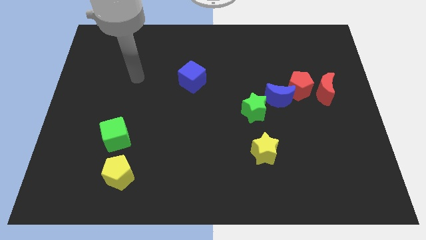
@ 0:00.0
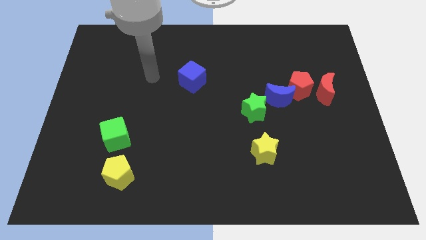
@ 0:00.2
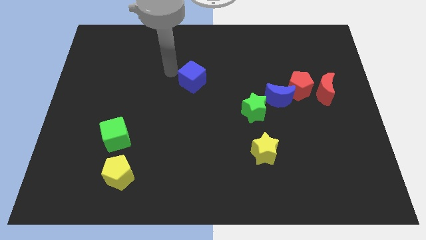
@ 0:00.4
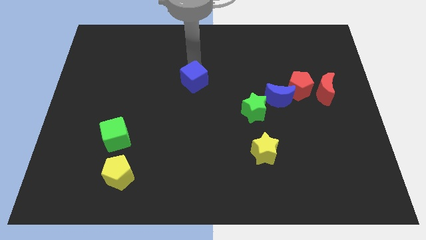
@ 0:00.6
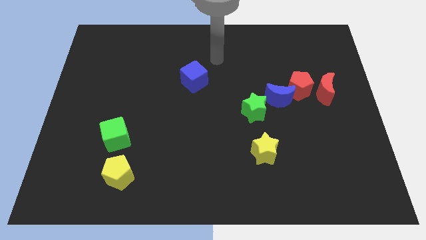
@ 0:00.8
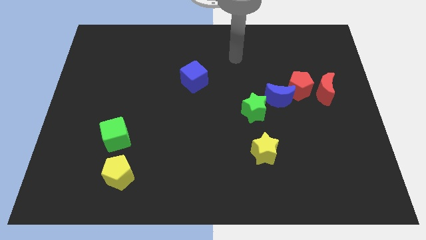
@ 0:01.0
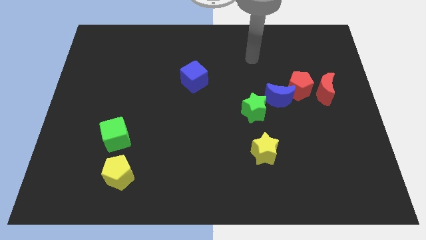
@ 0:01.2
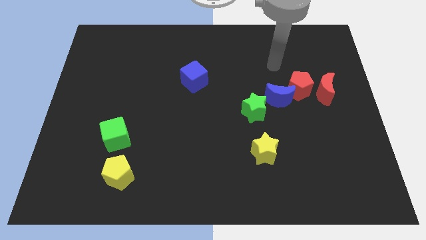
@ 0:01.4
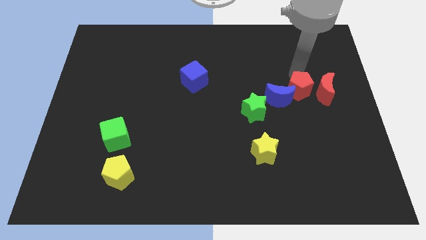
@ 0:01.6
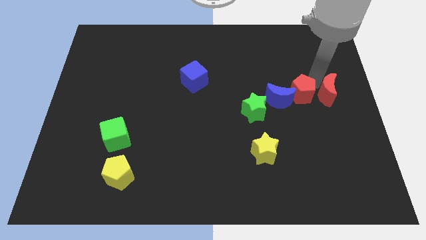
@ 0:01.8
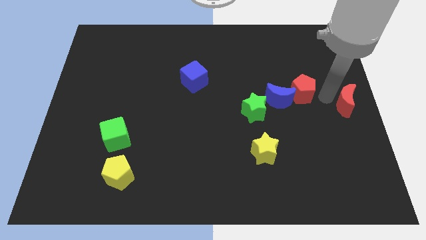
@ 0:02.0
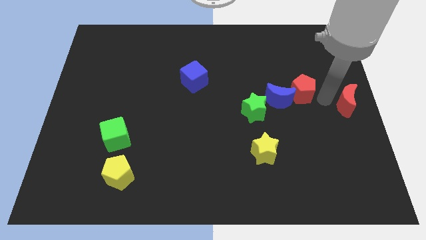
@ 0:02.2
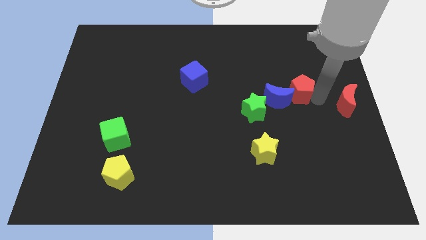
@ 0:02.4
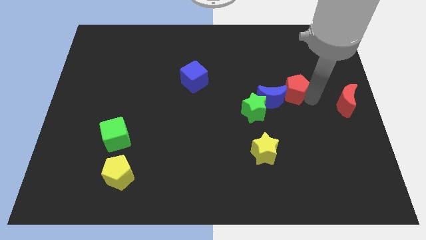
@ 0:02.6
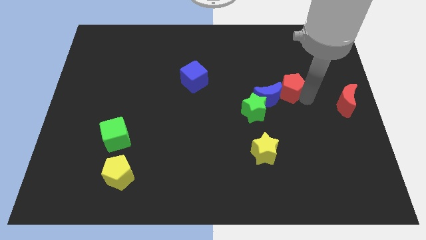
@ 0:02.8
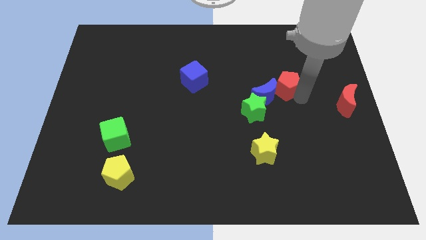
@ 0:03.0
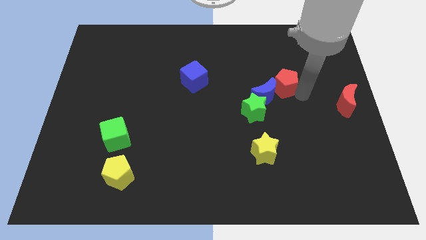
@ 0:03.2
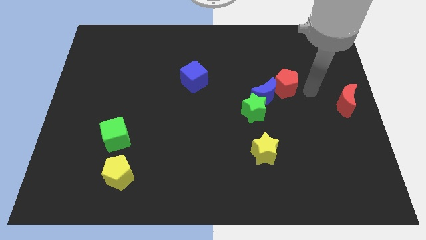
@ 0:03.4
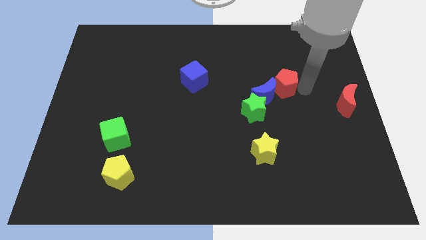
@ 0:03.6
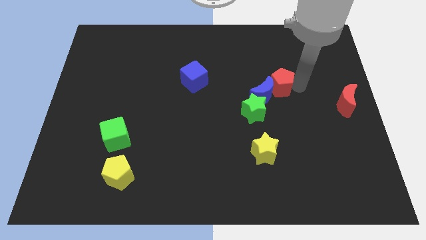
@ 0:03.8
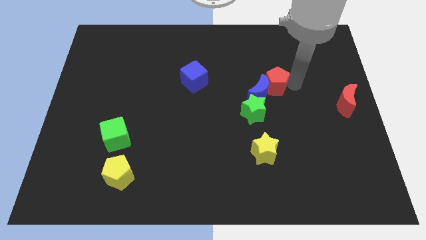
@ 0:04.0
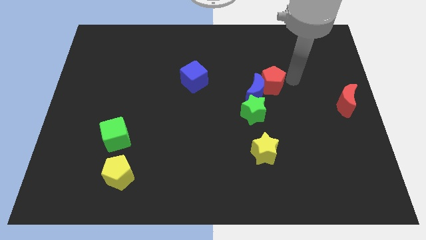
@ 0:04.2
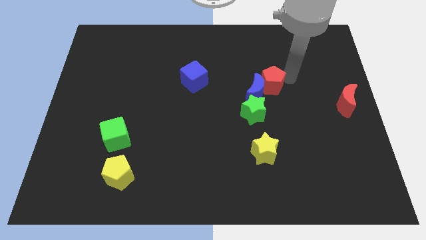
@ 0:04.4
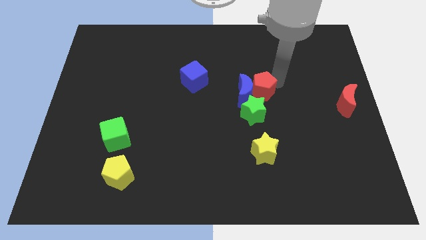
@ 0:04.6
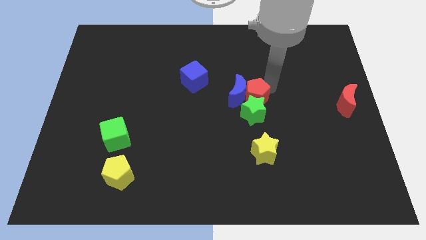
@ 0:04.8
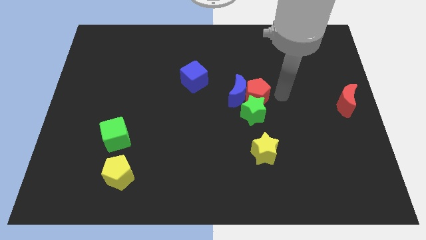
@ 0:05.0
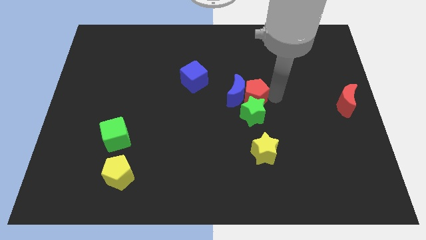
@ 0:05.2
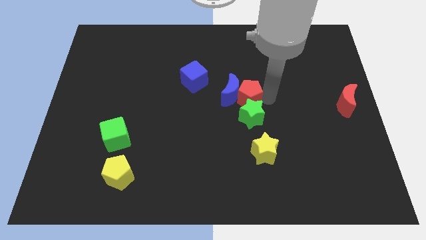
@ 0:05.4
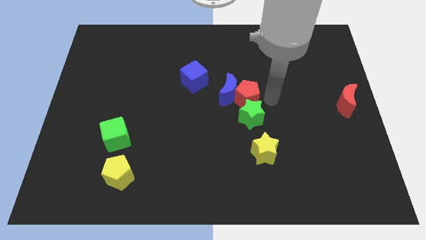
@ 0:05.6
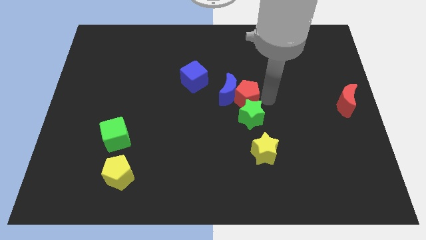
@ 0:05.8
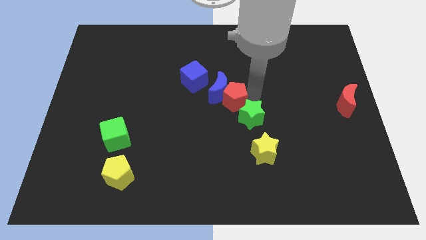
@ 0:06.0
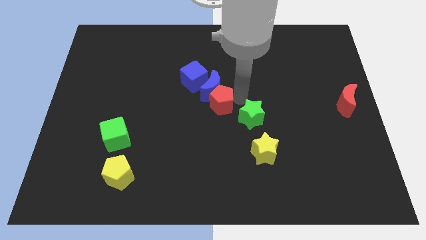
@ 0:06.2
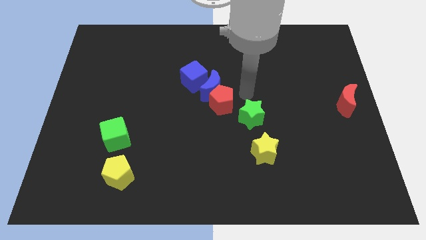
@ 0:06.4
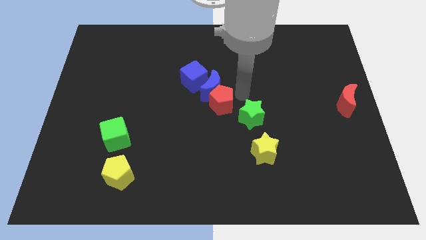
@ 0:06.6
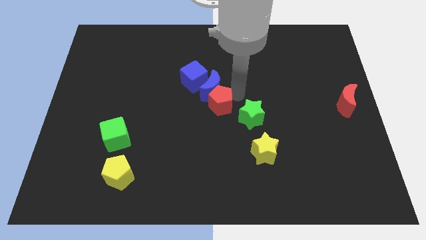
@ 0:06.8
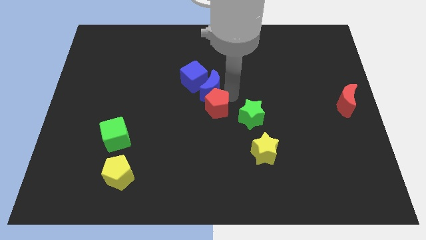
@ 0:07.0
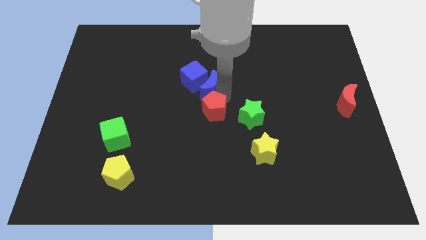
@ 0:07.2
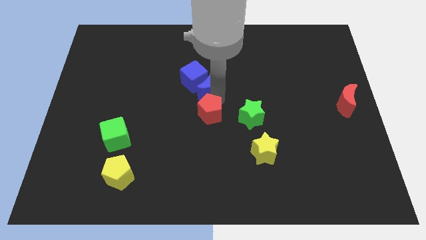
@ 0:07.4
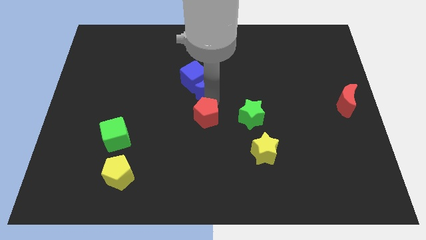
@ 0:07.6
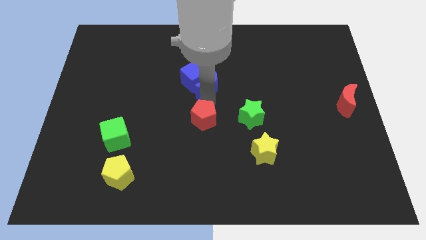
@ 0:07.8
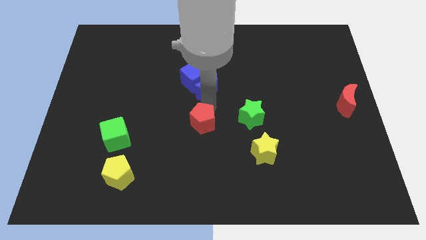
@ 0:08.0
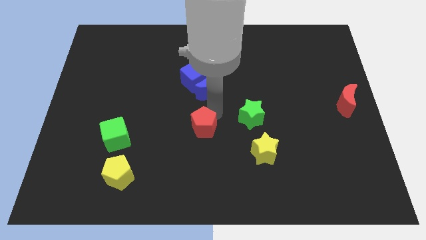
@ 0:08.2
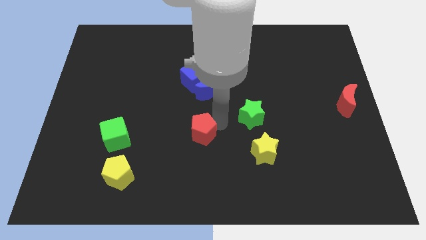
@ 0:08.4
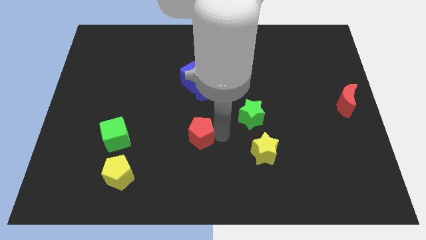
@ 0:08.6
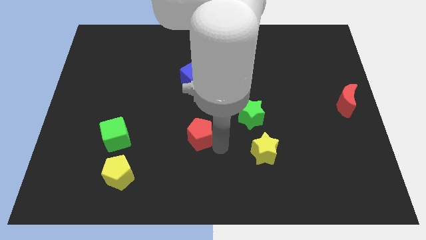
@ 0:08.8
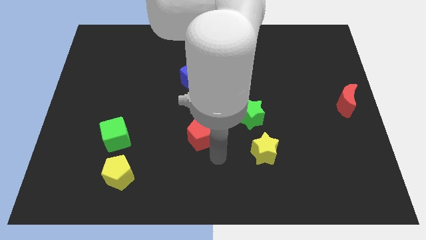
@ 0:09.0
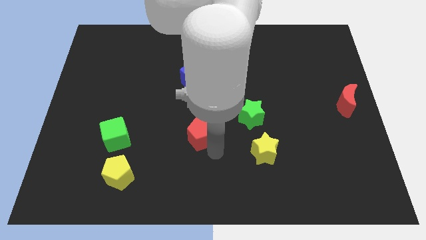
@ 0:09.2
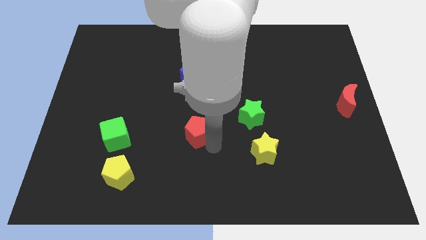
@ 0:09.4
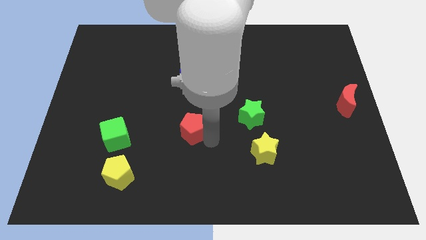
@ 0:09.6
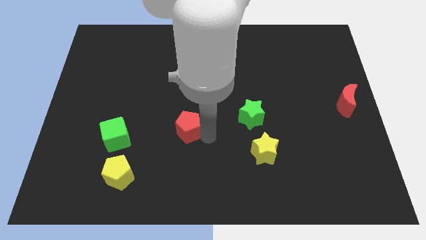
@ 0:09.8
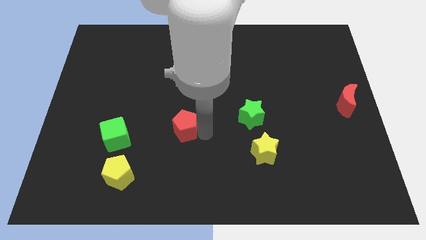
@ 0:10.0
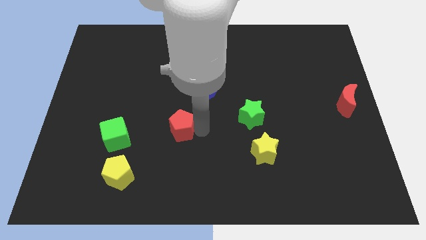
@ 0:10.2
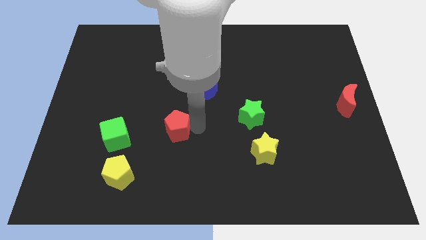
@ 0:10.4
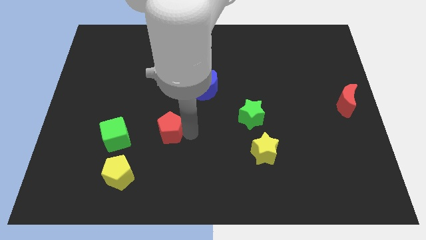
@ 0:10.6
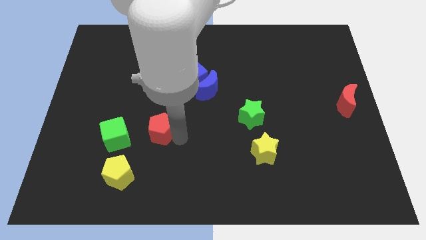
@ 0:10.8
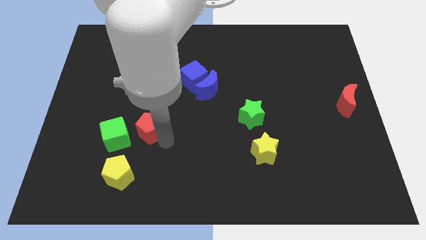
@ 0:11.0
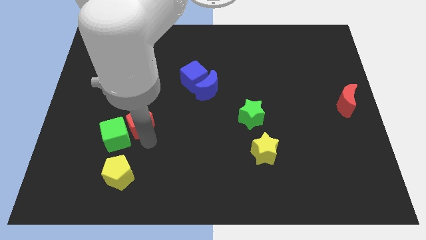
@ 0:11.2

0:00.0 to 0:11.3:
move the red pentagon close to the green cube

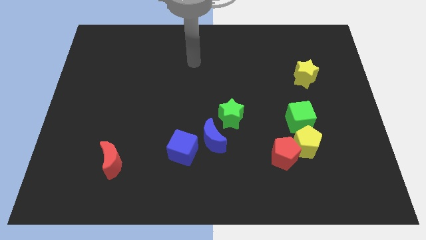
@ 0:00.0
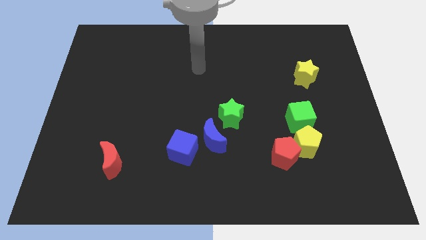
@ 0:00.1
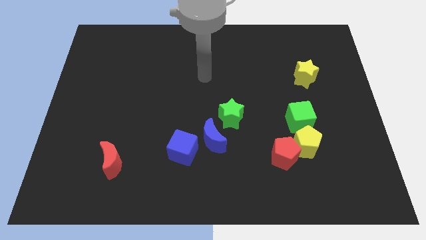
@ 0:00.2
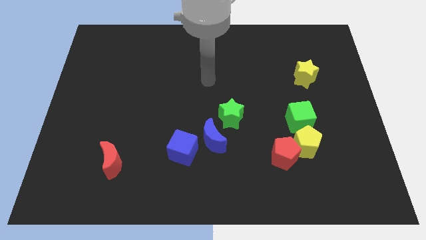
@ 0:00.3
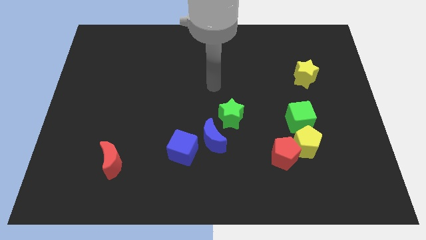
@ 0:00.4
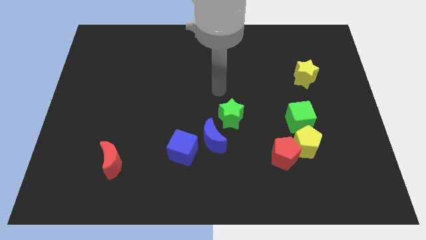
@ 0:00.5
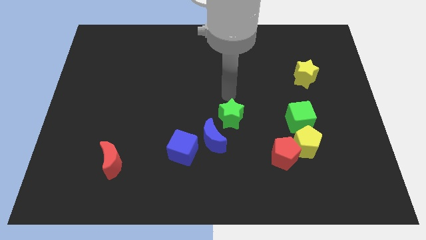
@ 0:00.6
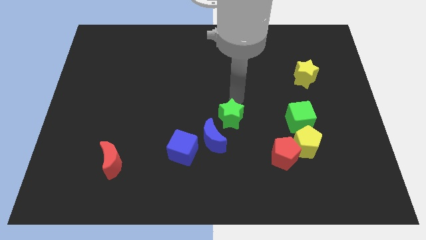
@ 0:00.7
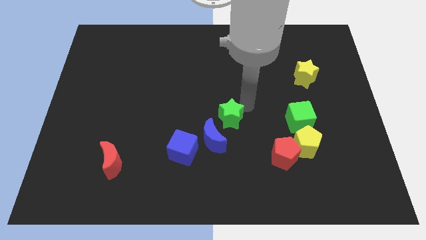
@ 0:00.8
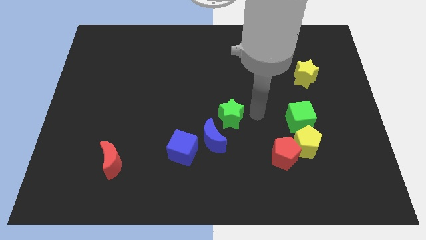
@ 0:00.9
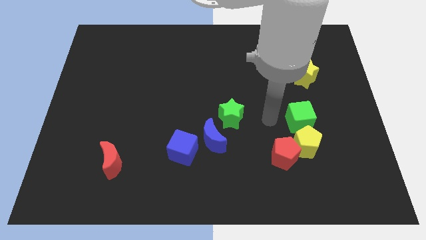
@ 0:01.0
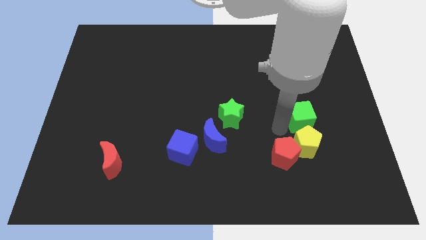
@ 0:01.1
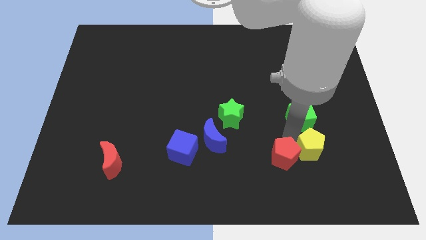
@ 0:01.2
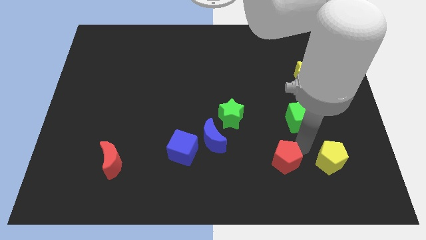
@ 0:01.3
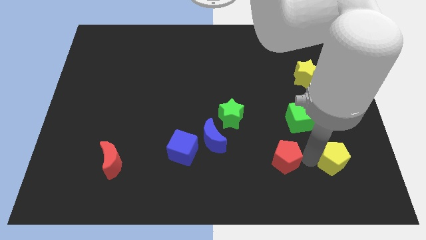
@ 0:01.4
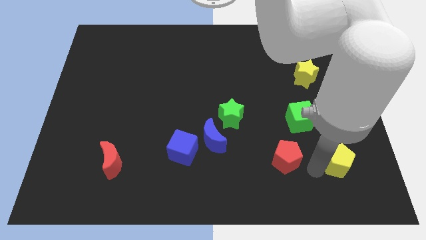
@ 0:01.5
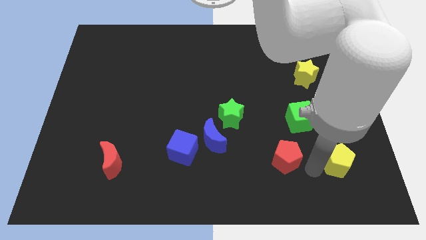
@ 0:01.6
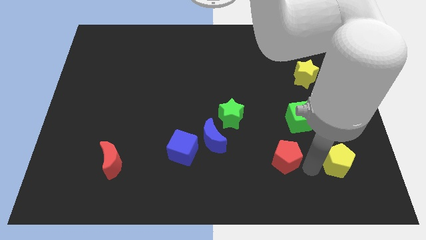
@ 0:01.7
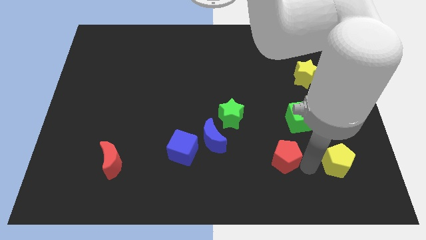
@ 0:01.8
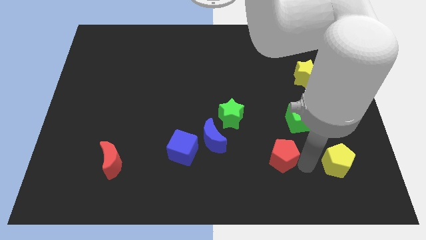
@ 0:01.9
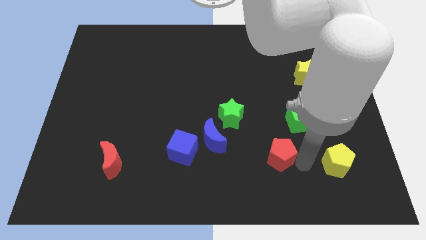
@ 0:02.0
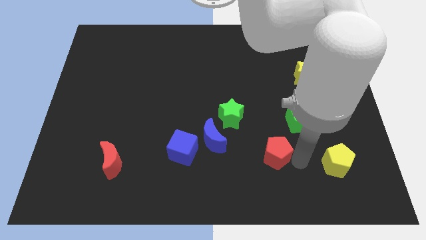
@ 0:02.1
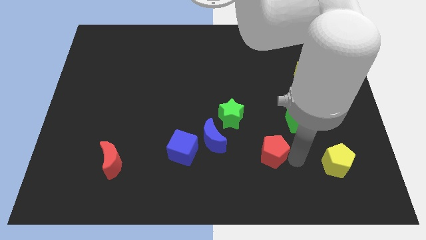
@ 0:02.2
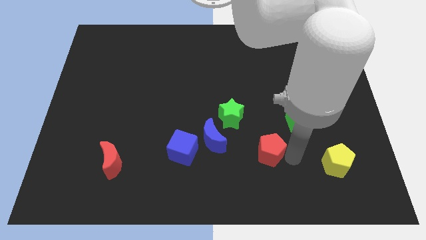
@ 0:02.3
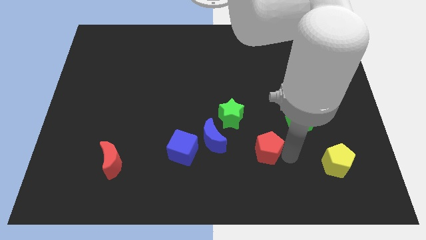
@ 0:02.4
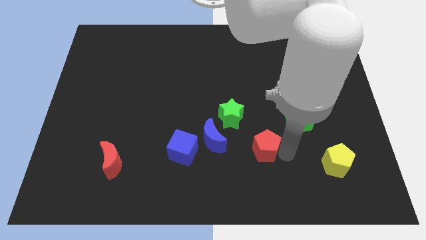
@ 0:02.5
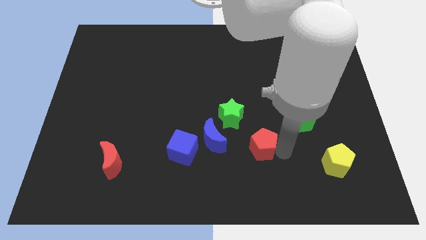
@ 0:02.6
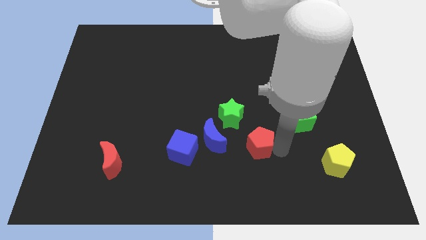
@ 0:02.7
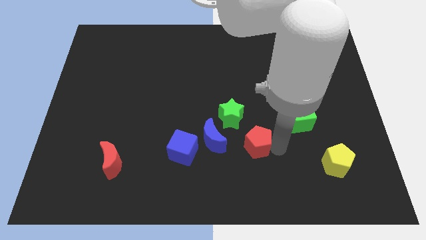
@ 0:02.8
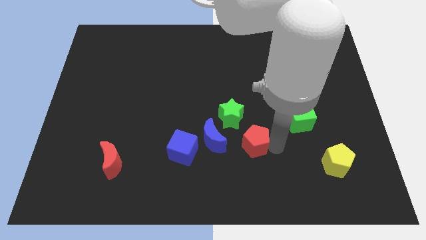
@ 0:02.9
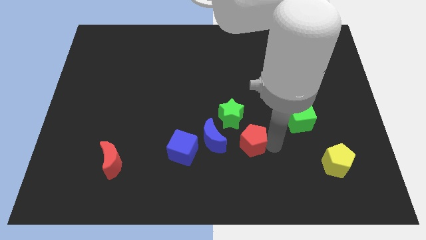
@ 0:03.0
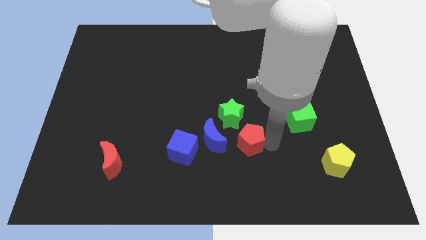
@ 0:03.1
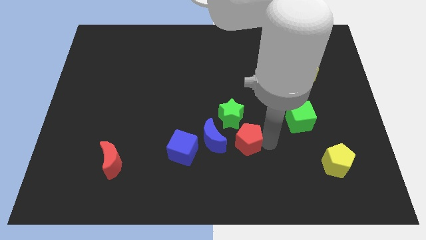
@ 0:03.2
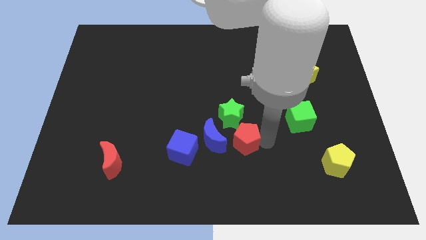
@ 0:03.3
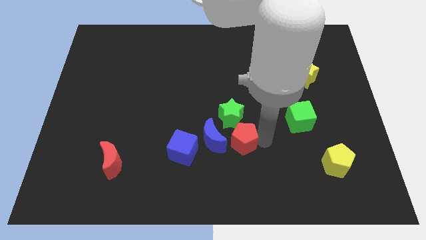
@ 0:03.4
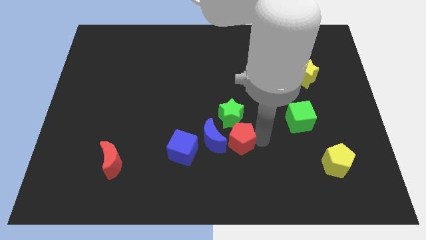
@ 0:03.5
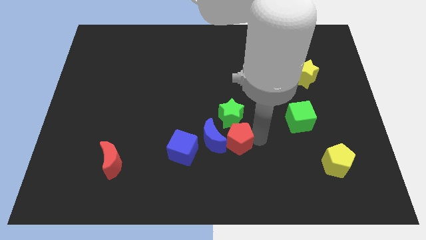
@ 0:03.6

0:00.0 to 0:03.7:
slide the red pentagon towards the blue moon
